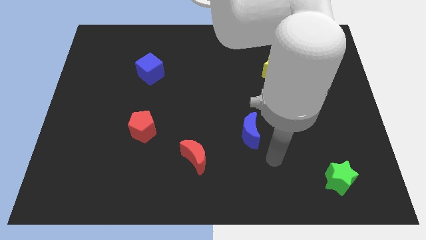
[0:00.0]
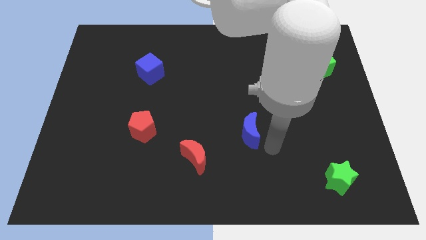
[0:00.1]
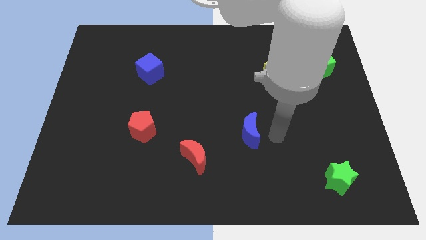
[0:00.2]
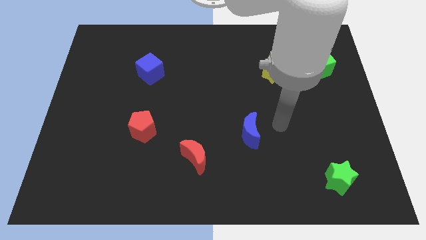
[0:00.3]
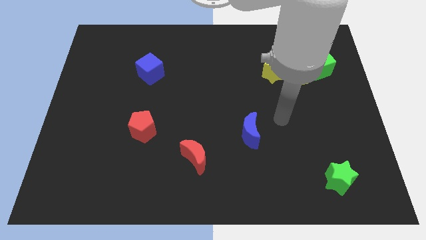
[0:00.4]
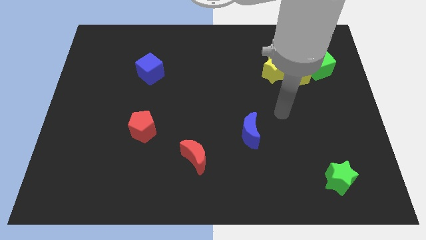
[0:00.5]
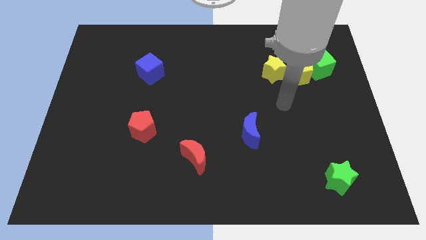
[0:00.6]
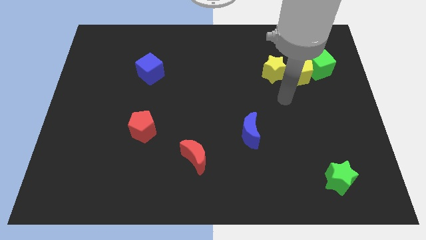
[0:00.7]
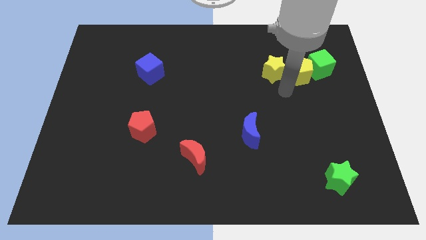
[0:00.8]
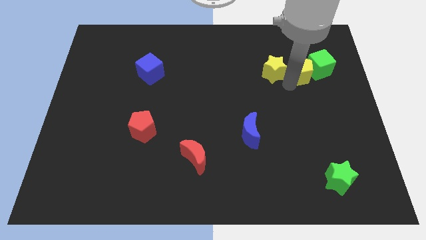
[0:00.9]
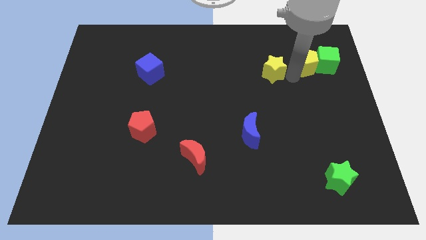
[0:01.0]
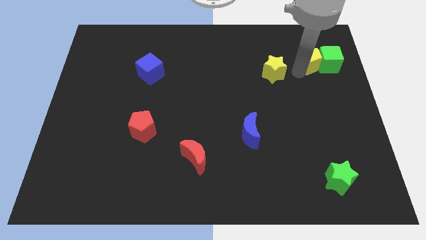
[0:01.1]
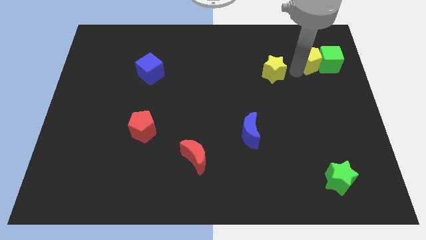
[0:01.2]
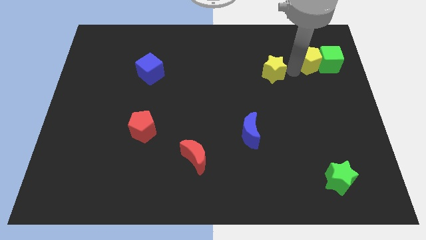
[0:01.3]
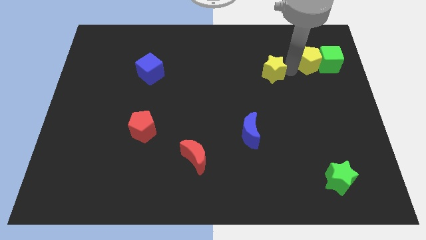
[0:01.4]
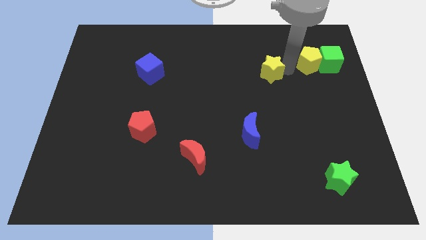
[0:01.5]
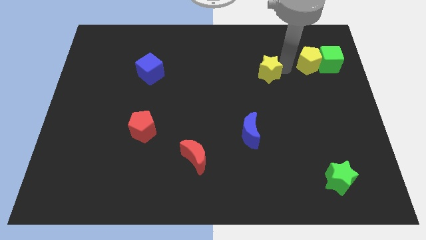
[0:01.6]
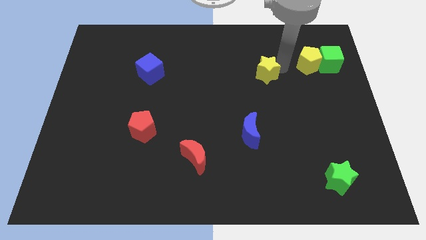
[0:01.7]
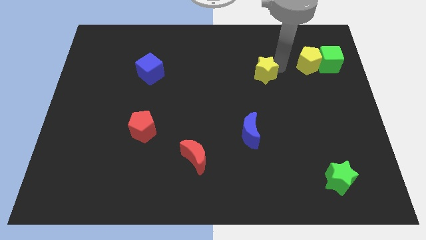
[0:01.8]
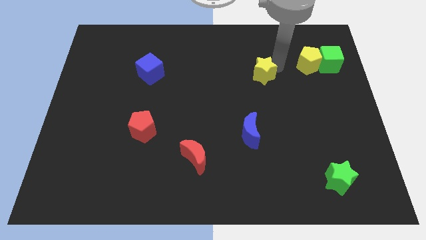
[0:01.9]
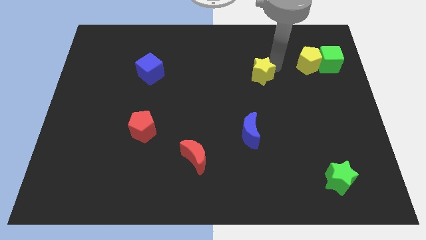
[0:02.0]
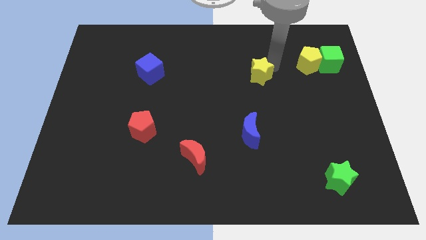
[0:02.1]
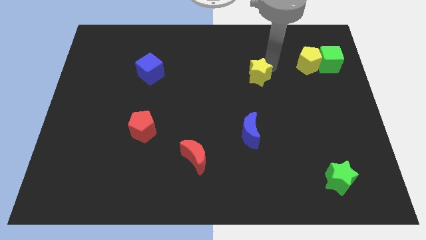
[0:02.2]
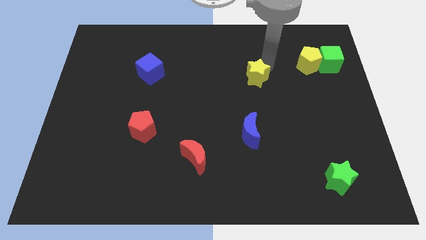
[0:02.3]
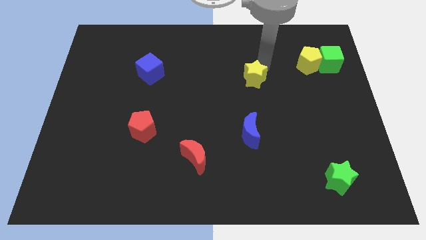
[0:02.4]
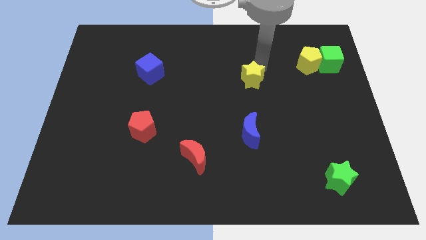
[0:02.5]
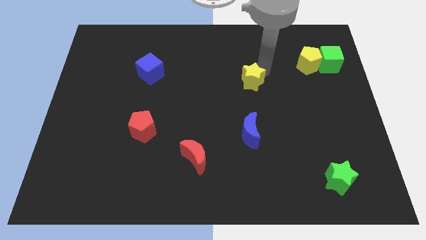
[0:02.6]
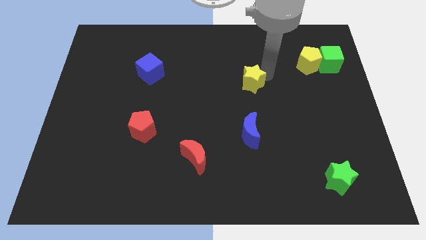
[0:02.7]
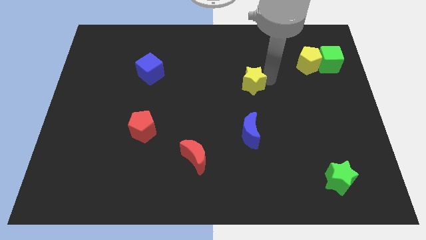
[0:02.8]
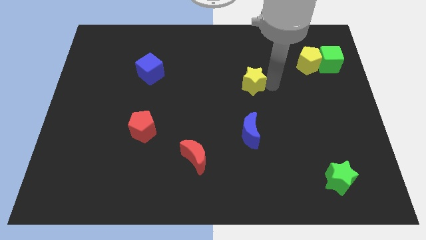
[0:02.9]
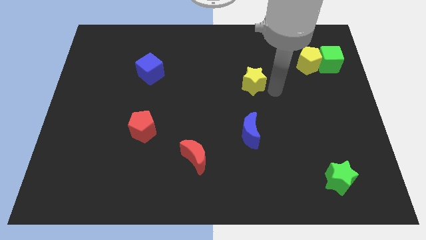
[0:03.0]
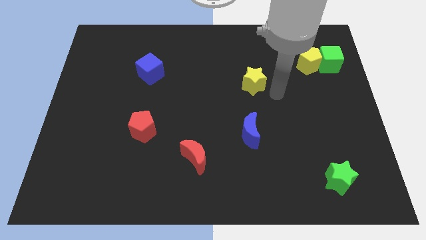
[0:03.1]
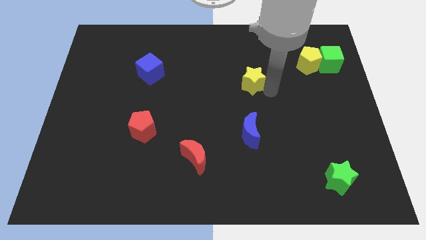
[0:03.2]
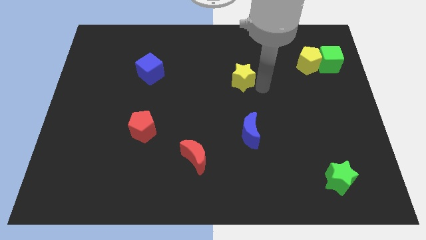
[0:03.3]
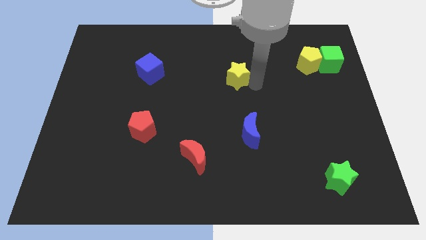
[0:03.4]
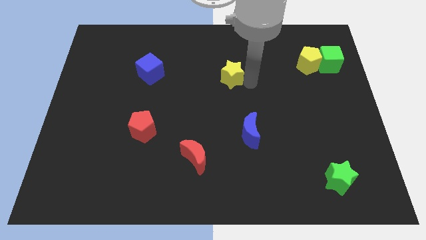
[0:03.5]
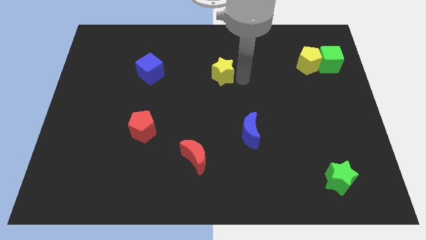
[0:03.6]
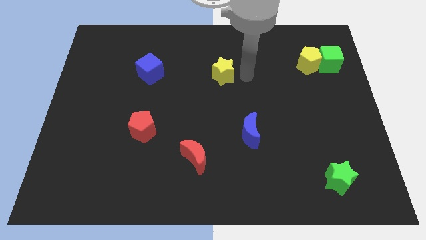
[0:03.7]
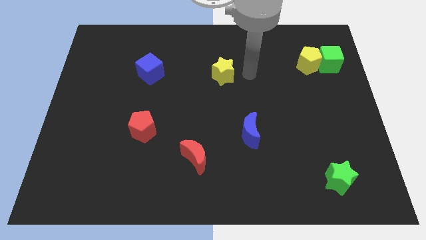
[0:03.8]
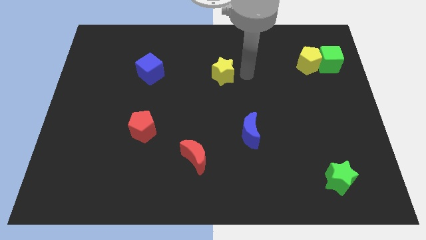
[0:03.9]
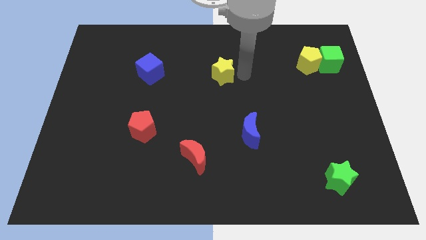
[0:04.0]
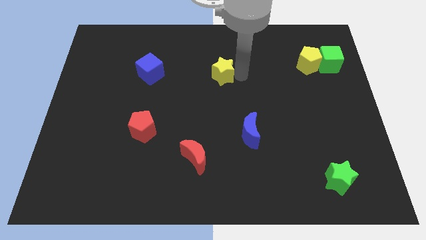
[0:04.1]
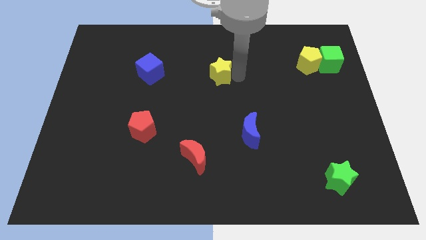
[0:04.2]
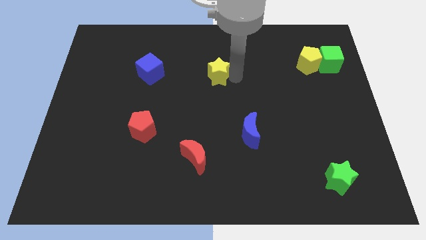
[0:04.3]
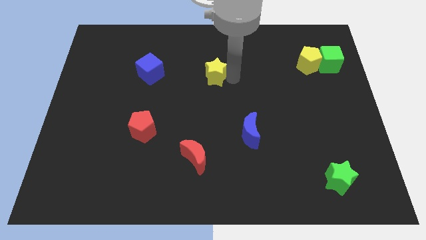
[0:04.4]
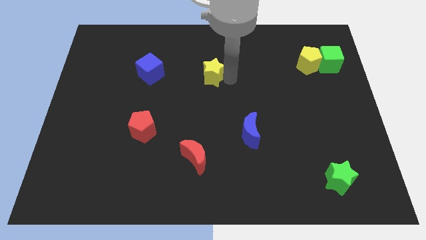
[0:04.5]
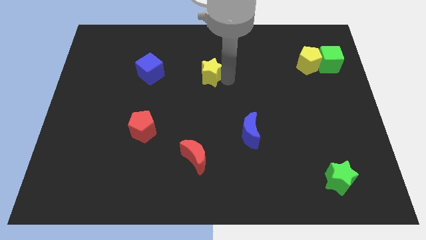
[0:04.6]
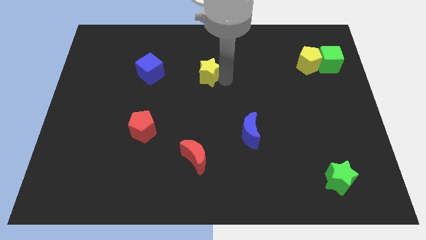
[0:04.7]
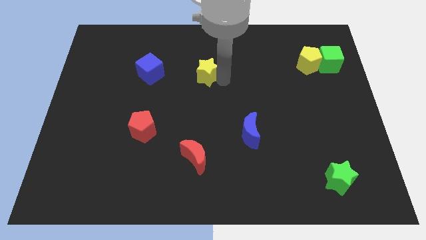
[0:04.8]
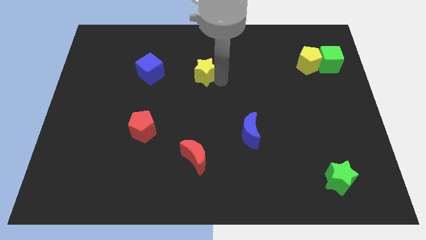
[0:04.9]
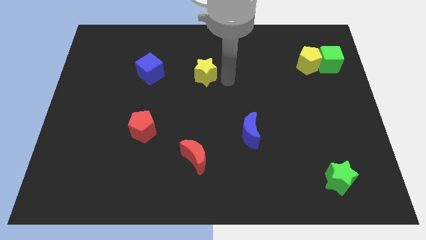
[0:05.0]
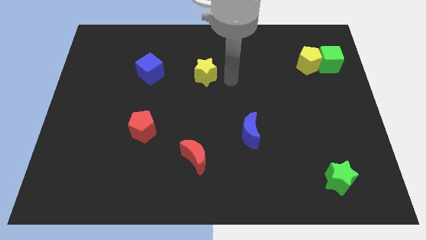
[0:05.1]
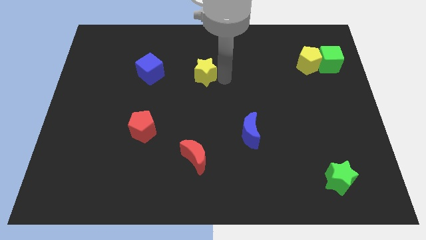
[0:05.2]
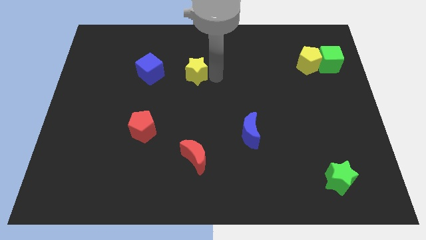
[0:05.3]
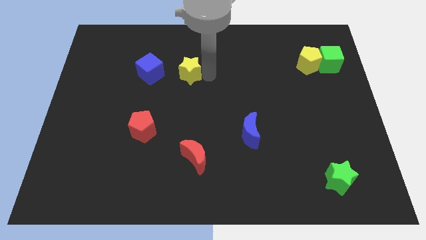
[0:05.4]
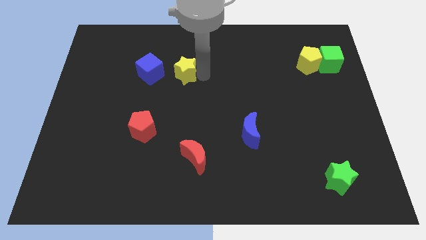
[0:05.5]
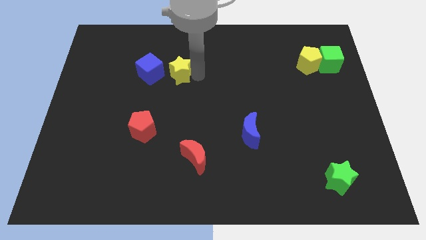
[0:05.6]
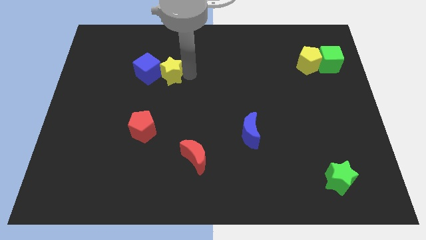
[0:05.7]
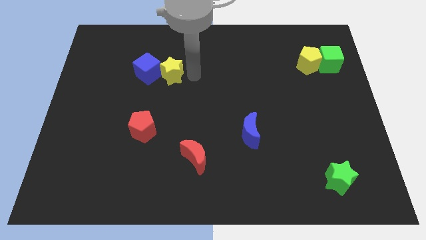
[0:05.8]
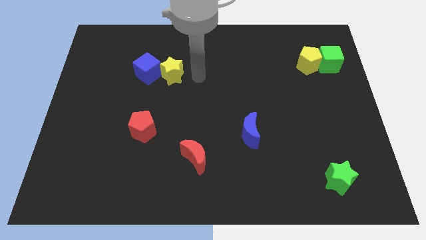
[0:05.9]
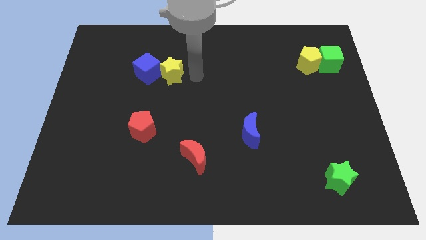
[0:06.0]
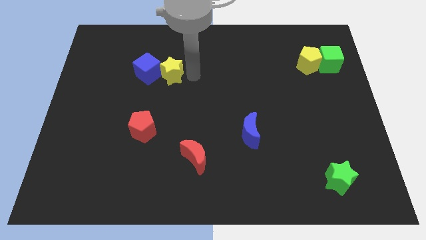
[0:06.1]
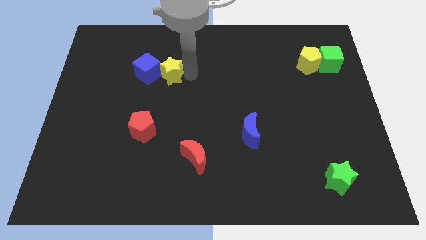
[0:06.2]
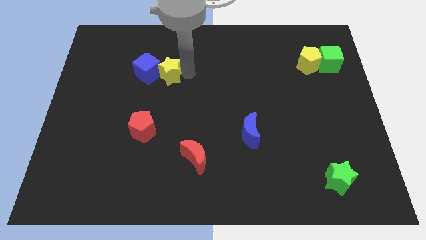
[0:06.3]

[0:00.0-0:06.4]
slide the yellow star next to the blue cube

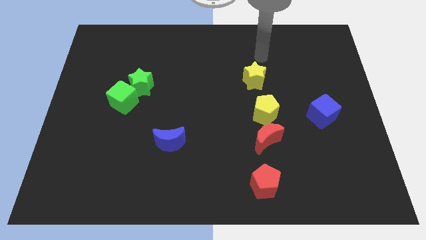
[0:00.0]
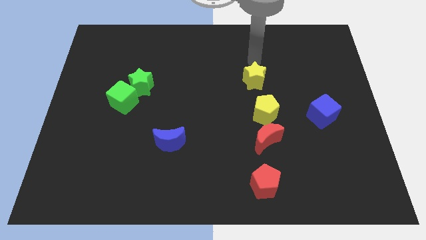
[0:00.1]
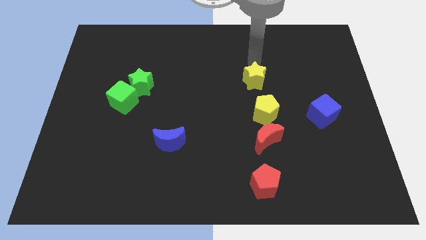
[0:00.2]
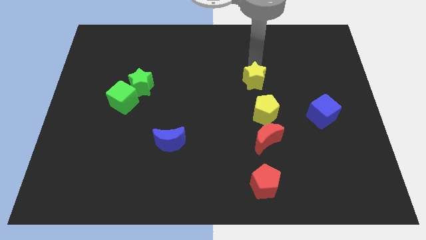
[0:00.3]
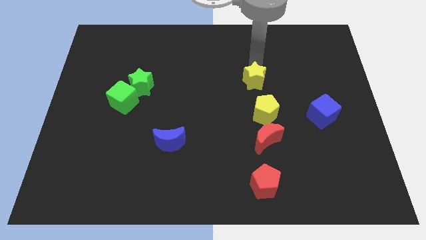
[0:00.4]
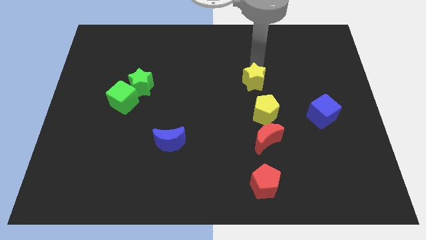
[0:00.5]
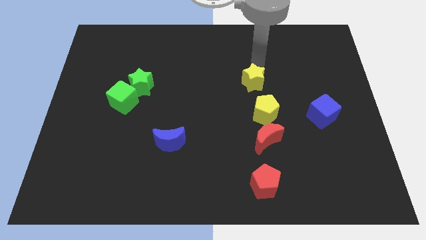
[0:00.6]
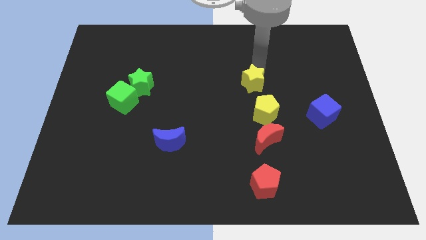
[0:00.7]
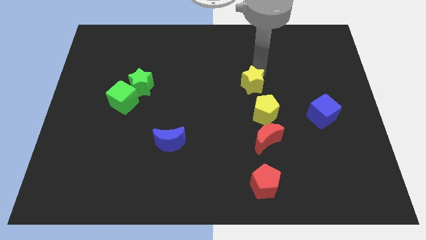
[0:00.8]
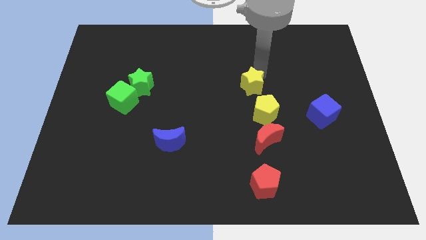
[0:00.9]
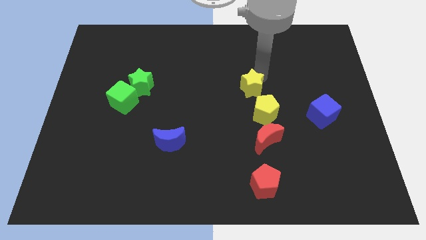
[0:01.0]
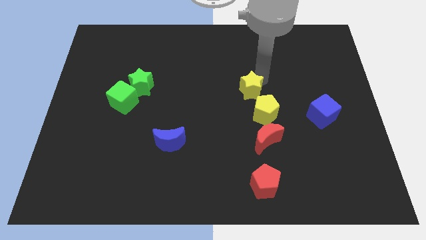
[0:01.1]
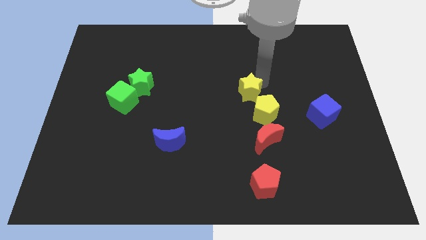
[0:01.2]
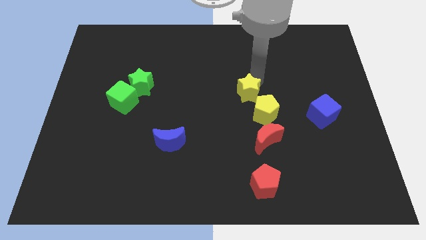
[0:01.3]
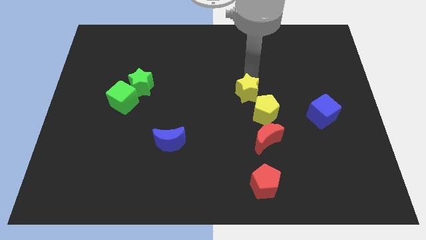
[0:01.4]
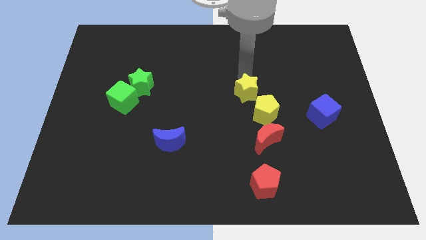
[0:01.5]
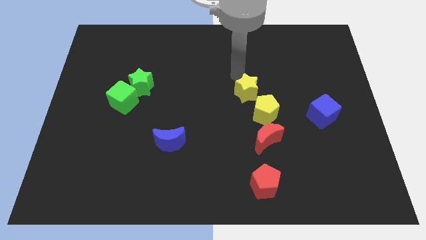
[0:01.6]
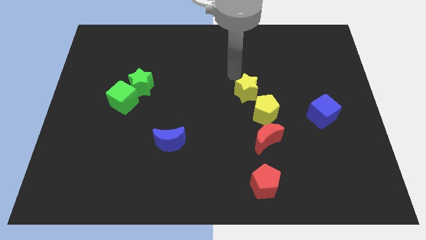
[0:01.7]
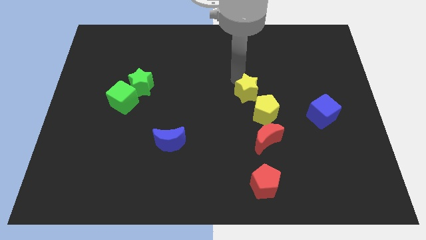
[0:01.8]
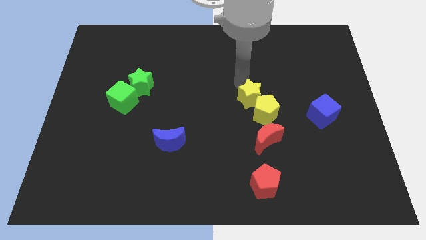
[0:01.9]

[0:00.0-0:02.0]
move the yellow star close to the yellow pentagon
